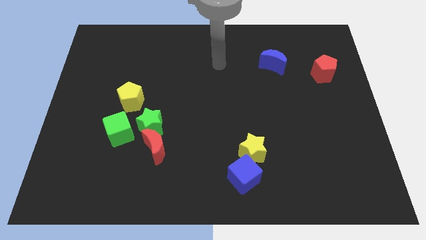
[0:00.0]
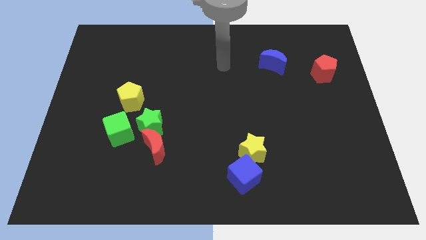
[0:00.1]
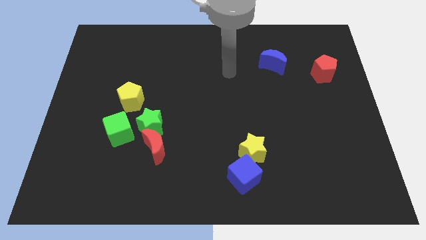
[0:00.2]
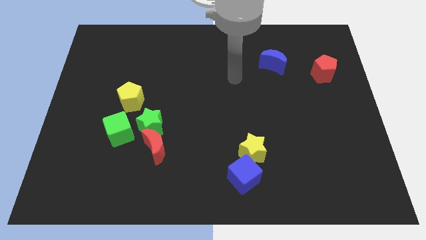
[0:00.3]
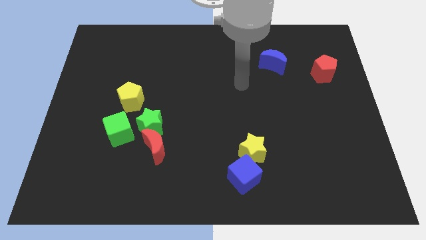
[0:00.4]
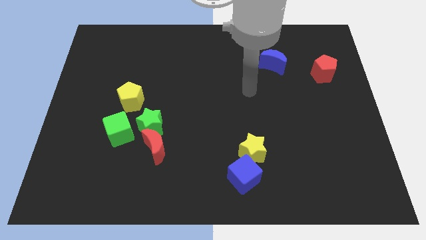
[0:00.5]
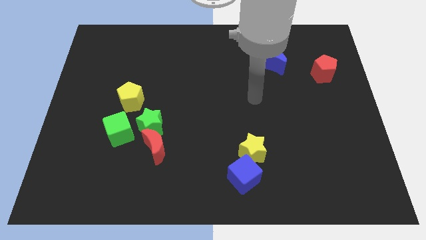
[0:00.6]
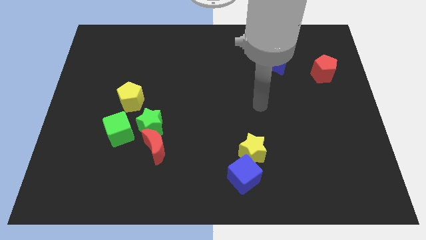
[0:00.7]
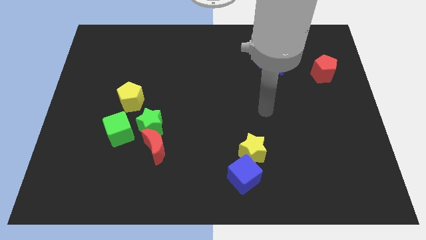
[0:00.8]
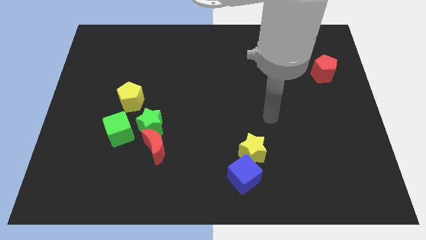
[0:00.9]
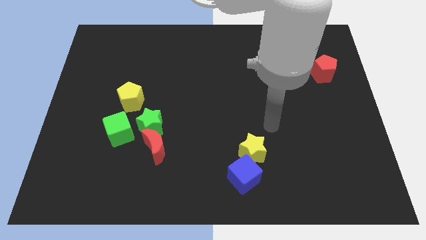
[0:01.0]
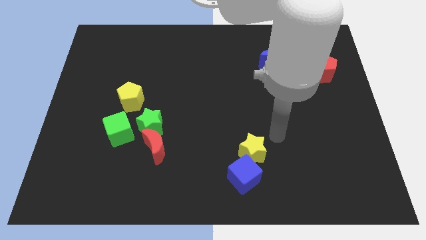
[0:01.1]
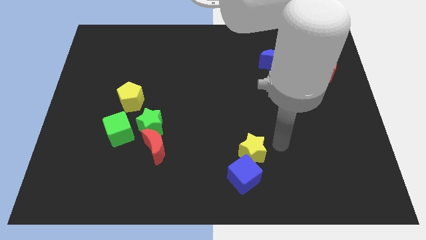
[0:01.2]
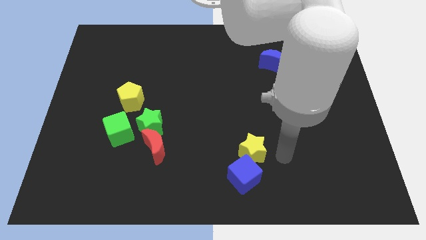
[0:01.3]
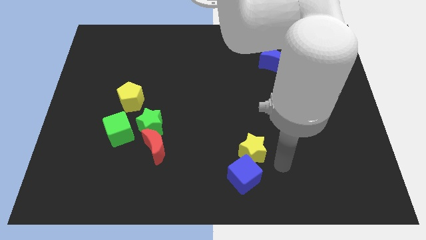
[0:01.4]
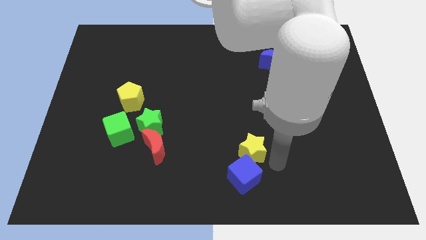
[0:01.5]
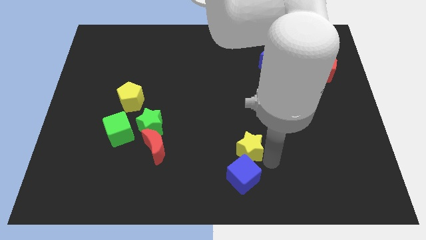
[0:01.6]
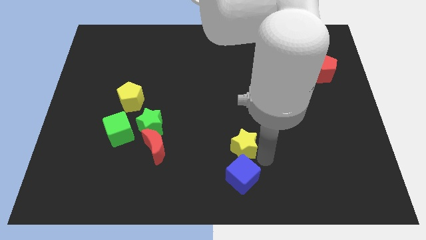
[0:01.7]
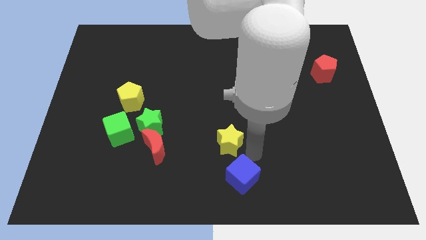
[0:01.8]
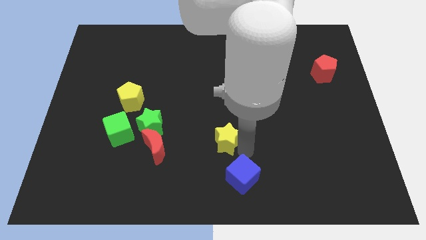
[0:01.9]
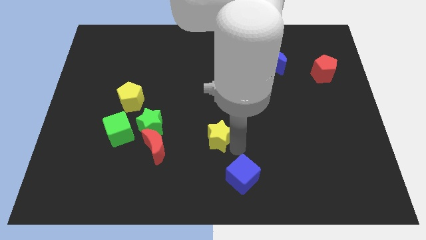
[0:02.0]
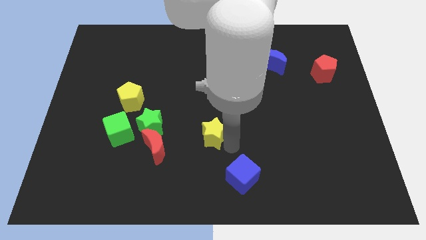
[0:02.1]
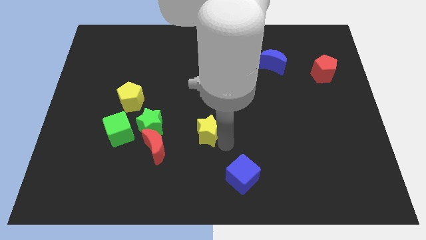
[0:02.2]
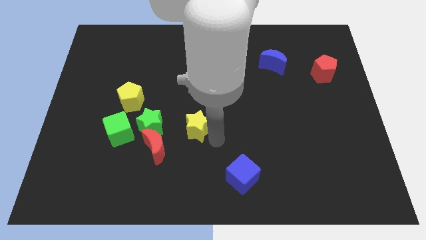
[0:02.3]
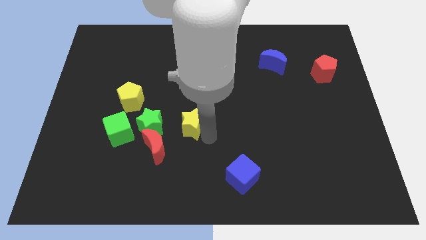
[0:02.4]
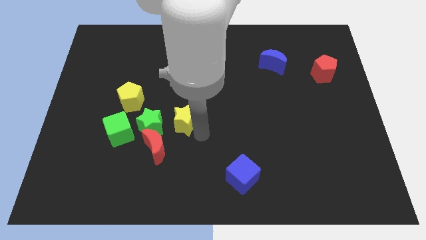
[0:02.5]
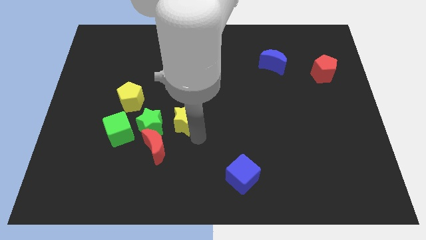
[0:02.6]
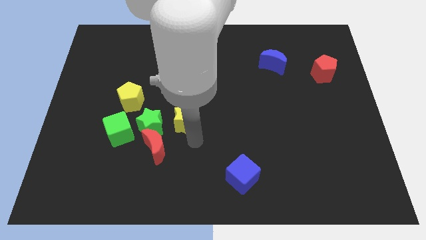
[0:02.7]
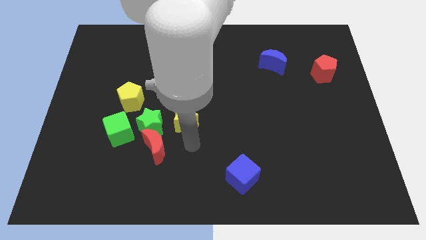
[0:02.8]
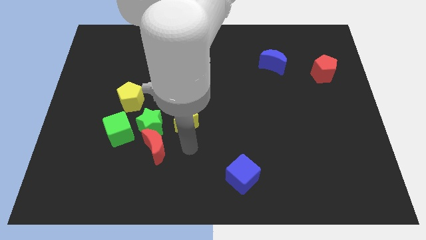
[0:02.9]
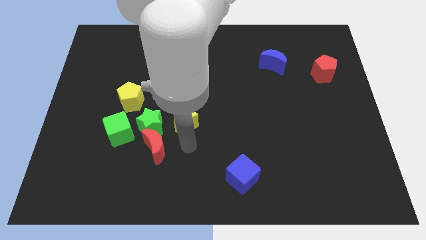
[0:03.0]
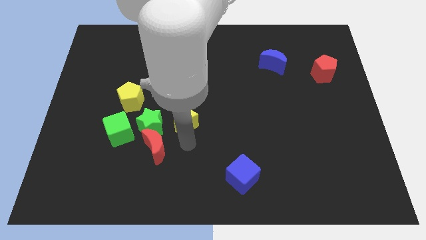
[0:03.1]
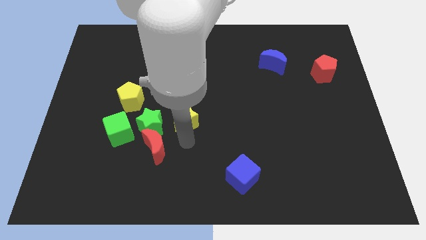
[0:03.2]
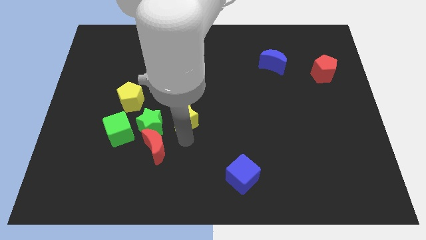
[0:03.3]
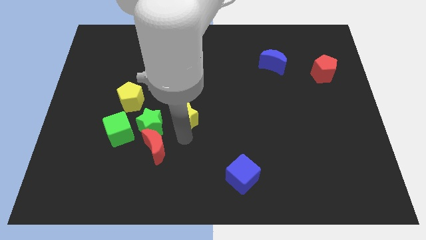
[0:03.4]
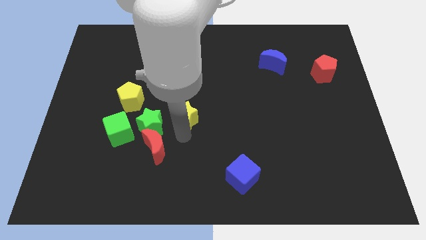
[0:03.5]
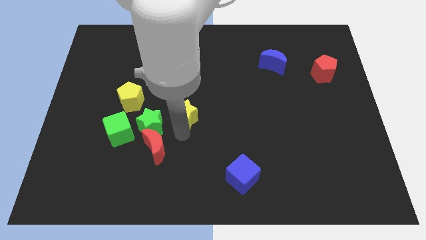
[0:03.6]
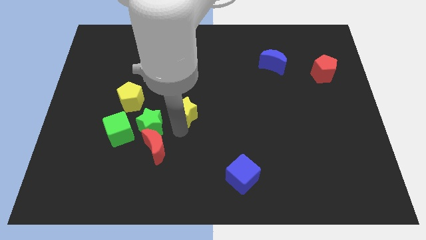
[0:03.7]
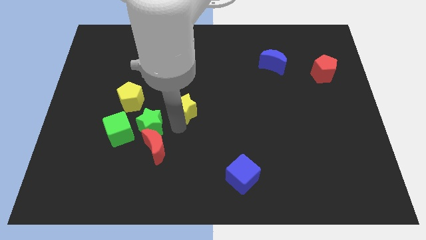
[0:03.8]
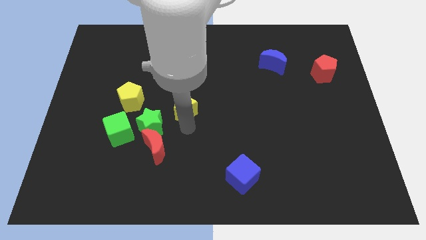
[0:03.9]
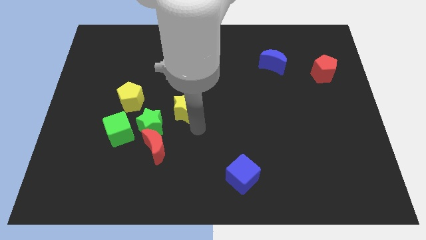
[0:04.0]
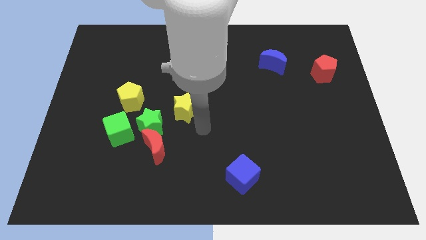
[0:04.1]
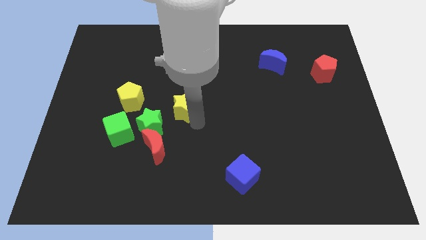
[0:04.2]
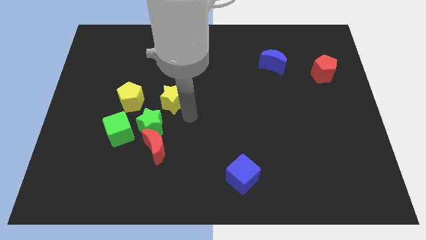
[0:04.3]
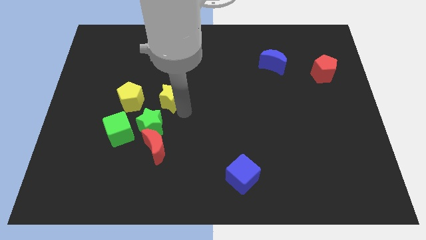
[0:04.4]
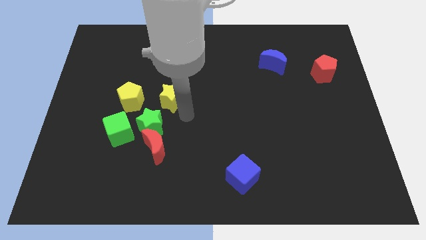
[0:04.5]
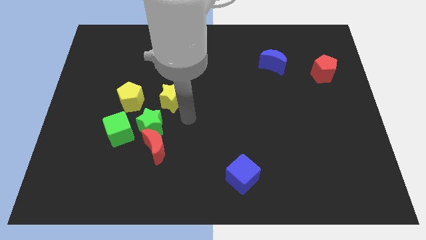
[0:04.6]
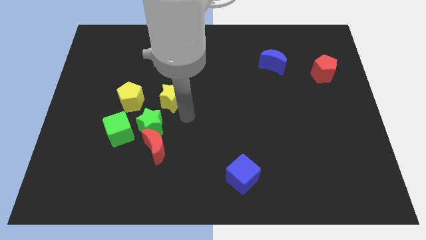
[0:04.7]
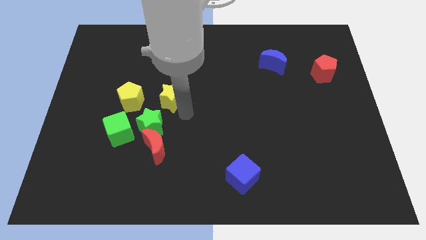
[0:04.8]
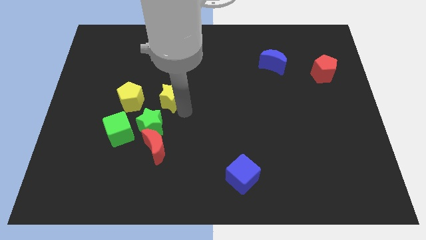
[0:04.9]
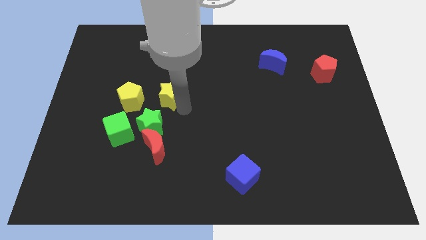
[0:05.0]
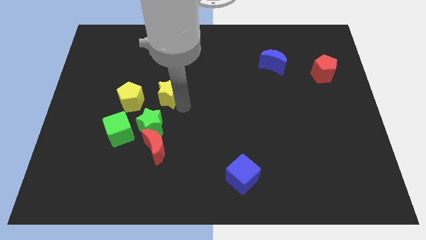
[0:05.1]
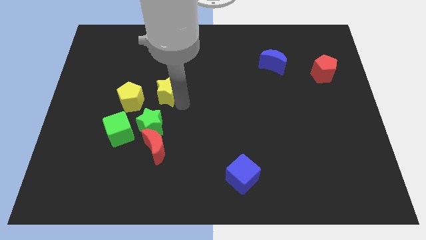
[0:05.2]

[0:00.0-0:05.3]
put the yellow star to the top right of the yellow pentagon

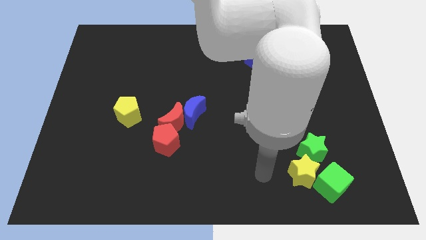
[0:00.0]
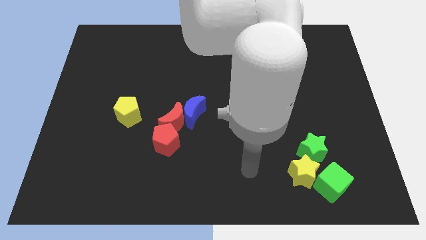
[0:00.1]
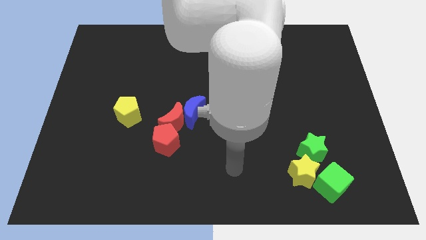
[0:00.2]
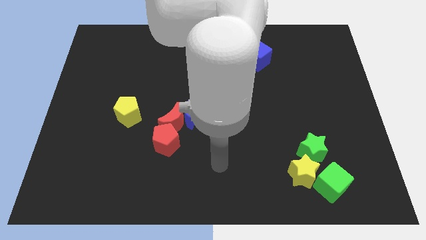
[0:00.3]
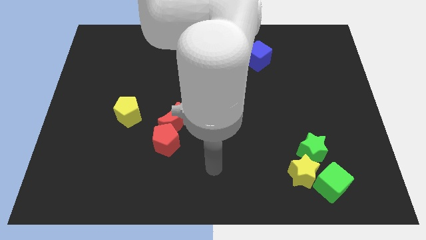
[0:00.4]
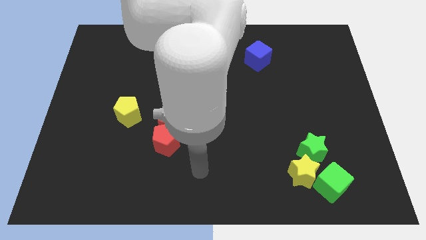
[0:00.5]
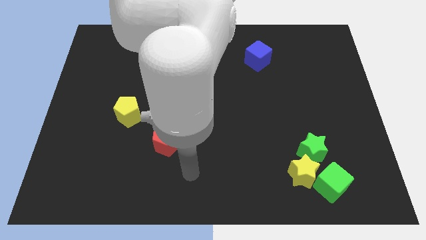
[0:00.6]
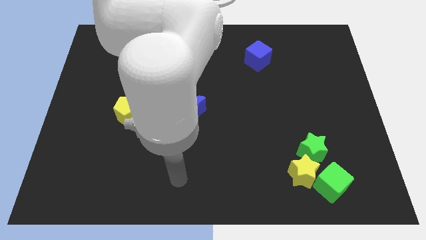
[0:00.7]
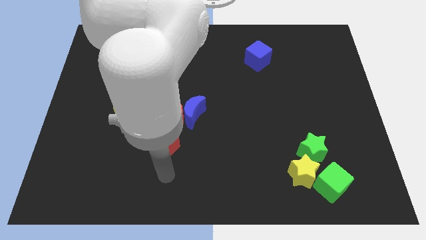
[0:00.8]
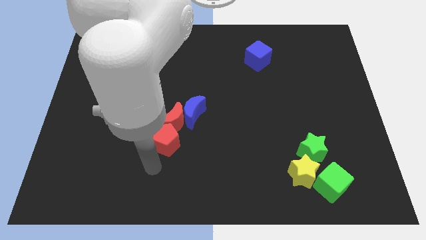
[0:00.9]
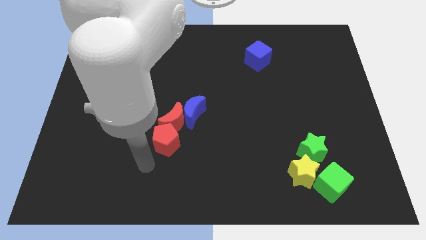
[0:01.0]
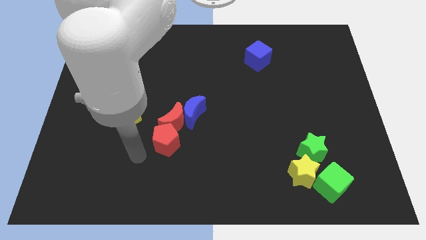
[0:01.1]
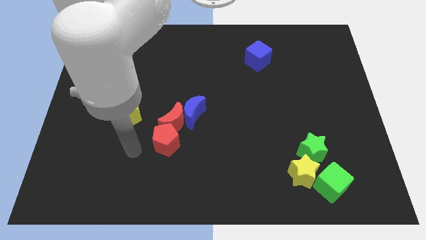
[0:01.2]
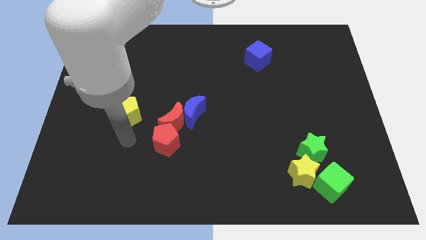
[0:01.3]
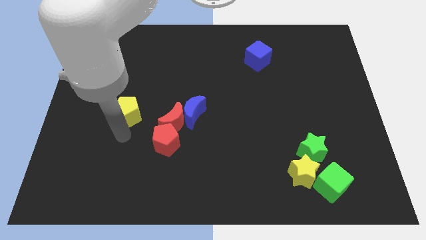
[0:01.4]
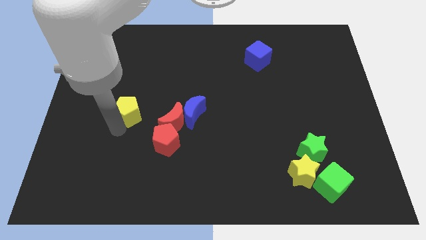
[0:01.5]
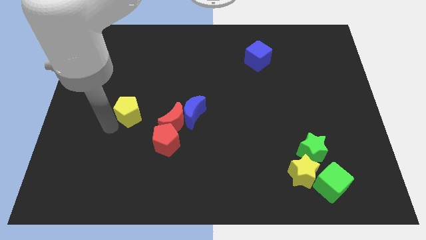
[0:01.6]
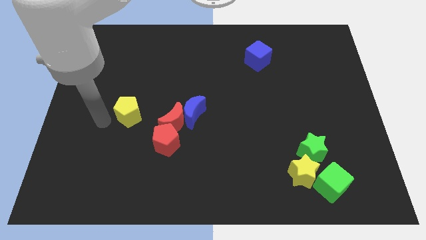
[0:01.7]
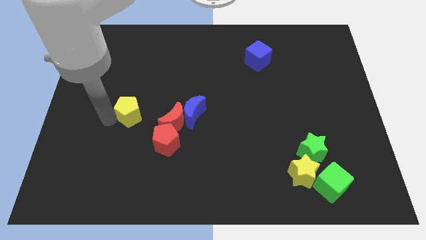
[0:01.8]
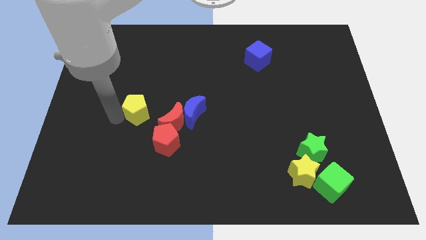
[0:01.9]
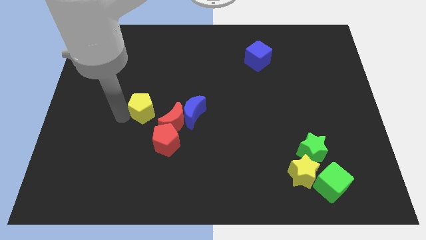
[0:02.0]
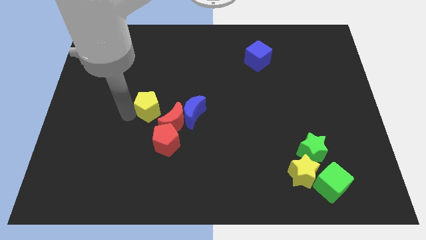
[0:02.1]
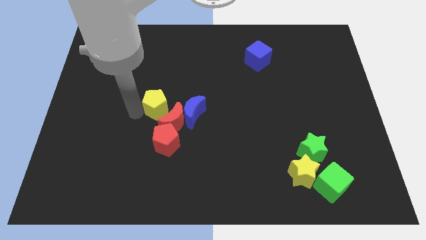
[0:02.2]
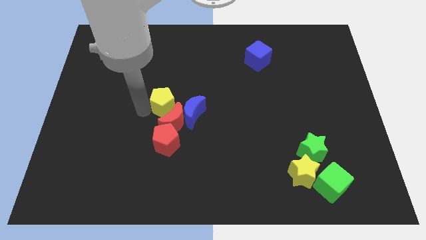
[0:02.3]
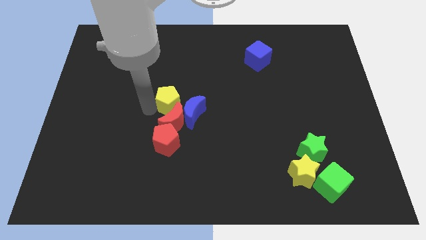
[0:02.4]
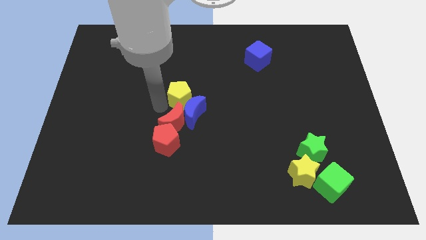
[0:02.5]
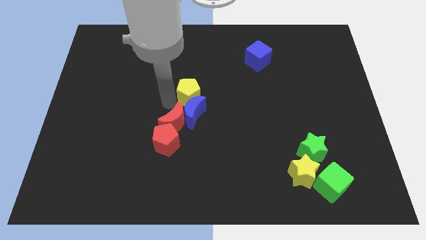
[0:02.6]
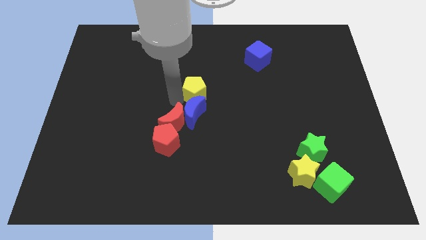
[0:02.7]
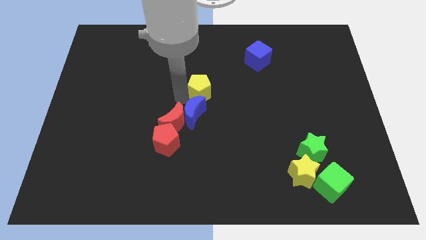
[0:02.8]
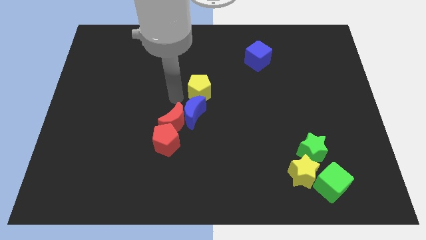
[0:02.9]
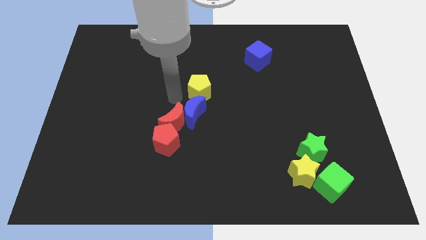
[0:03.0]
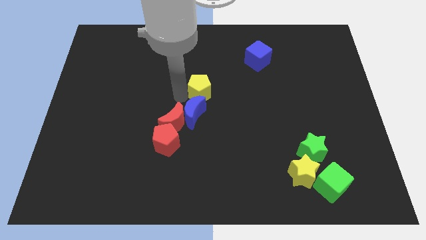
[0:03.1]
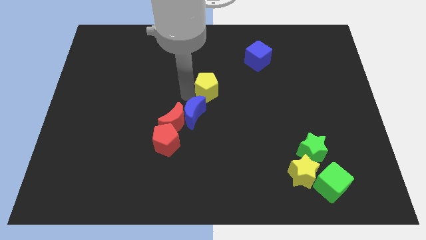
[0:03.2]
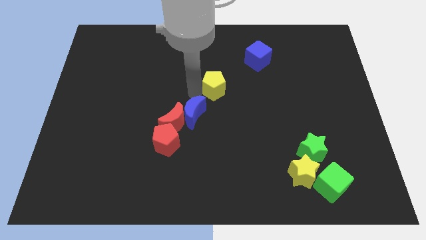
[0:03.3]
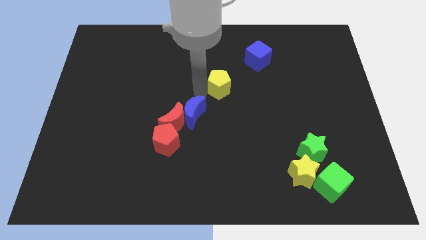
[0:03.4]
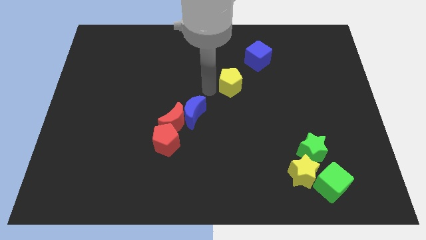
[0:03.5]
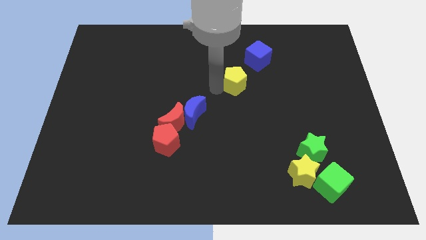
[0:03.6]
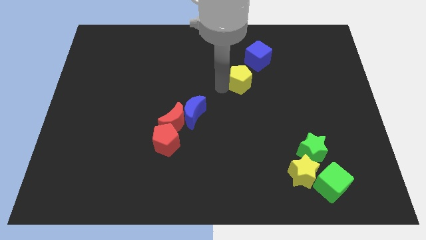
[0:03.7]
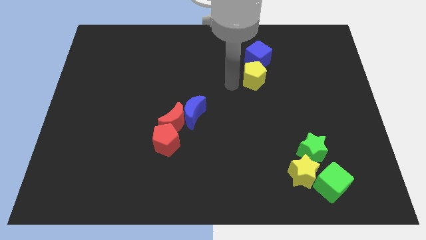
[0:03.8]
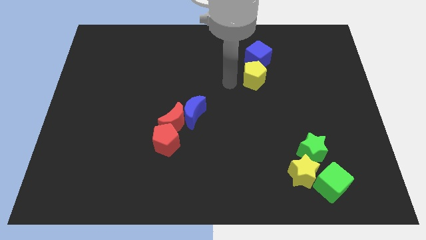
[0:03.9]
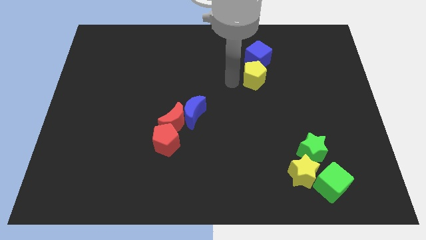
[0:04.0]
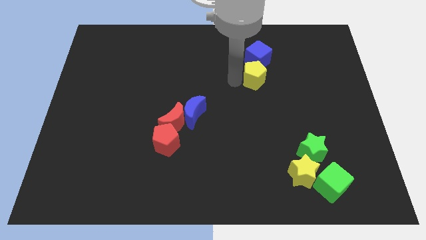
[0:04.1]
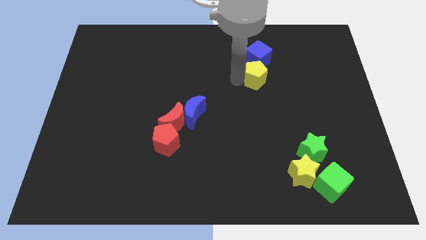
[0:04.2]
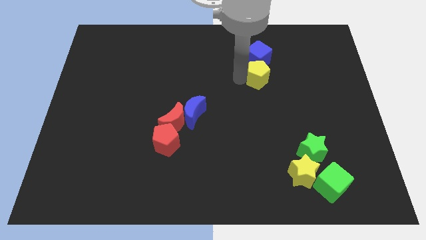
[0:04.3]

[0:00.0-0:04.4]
push the yellow pentagon to the bottom right side of the blue cube
